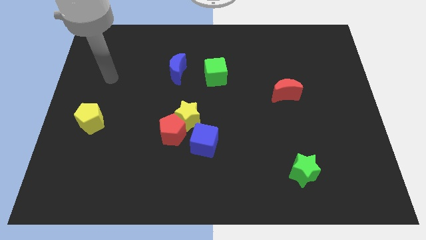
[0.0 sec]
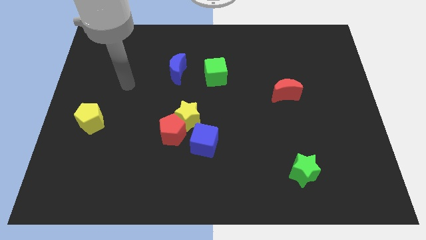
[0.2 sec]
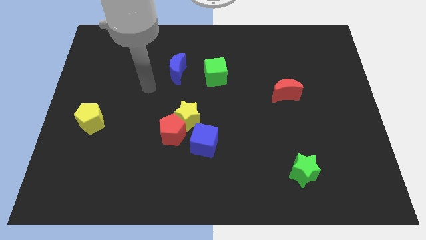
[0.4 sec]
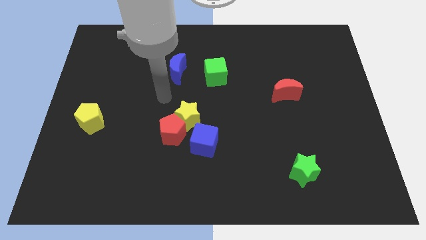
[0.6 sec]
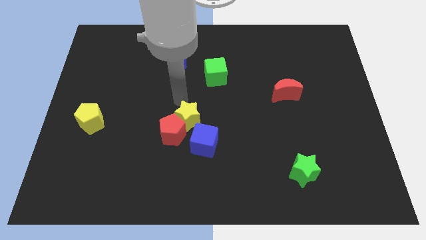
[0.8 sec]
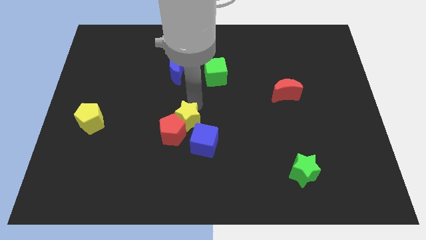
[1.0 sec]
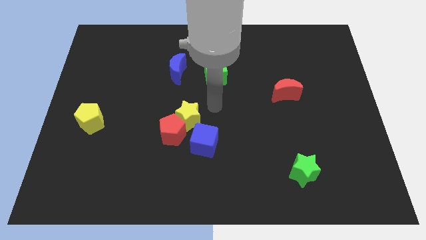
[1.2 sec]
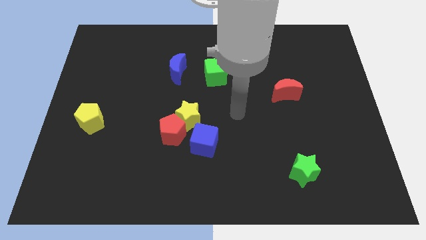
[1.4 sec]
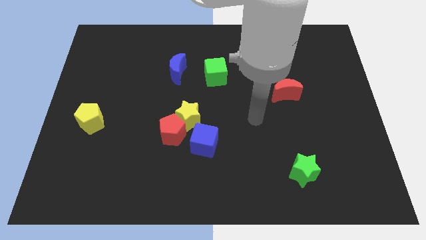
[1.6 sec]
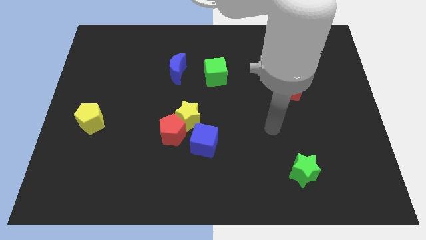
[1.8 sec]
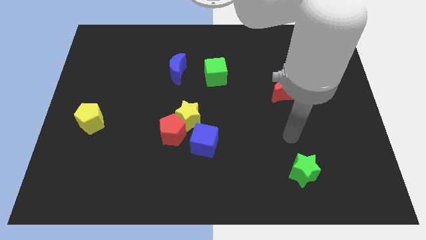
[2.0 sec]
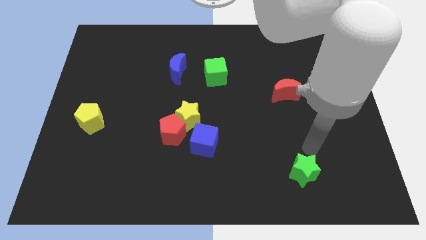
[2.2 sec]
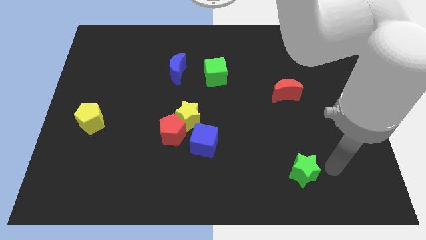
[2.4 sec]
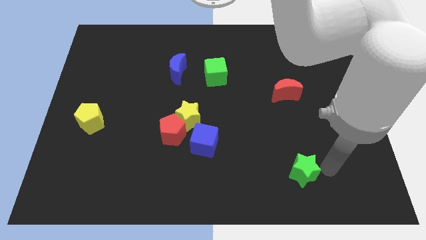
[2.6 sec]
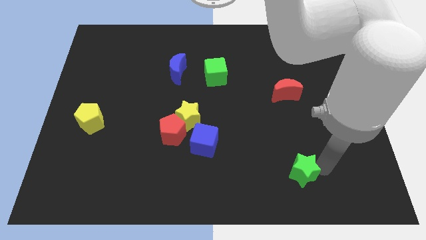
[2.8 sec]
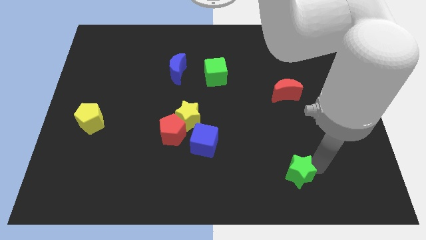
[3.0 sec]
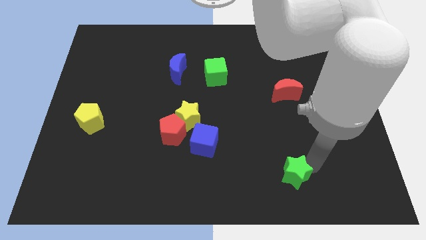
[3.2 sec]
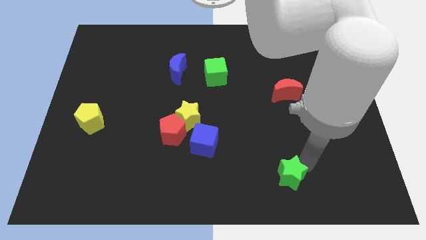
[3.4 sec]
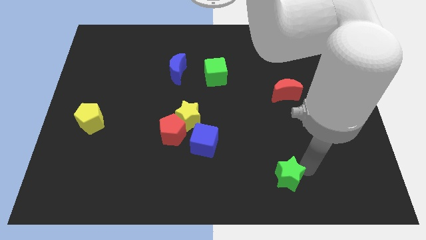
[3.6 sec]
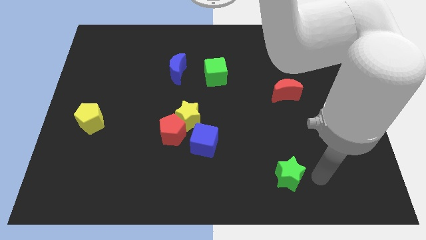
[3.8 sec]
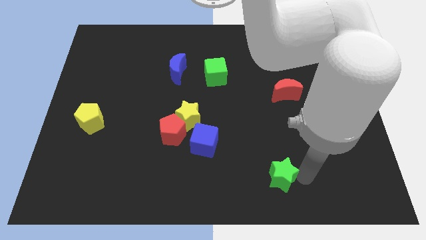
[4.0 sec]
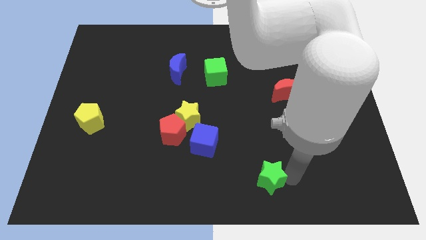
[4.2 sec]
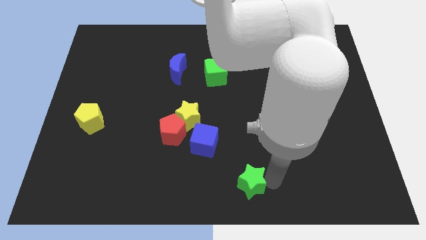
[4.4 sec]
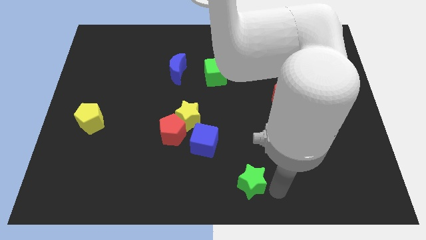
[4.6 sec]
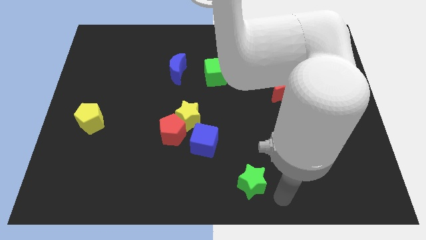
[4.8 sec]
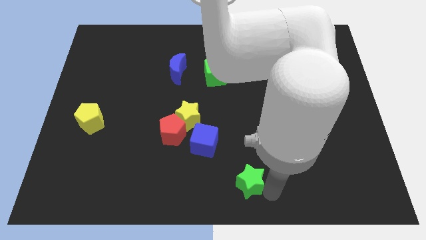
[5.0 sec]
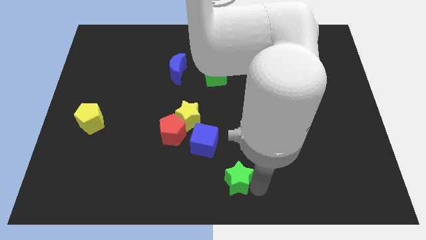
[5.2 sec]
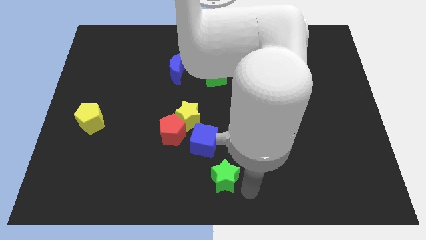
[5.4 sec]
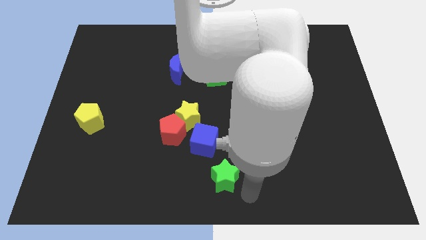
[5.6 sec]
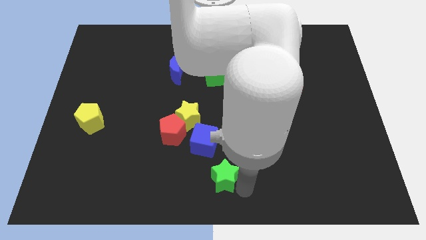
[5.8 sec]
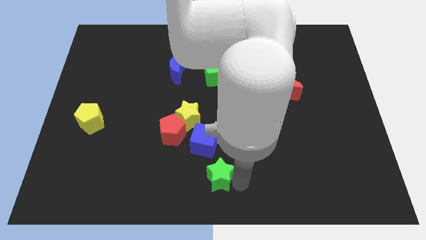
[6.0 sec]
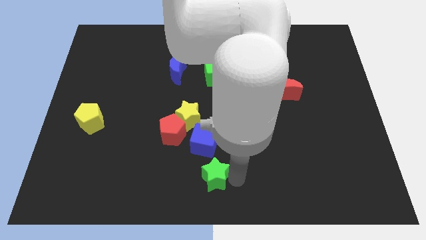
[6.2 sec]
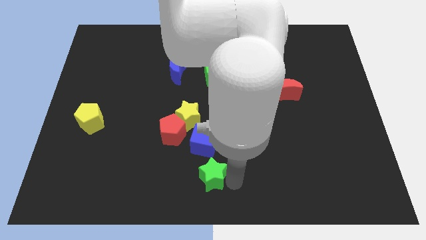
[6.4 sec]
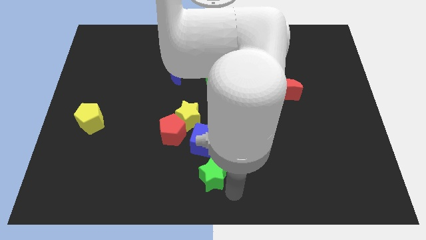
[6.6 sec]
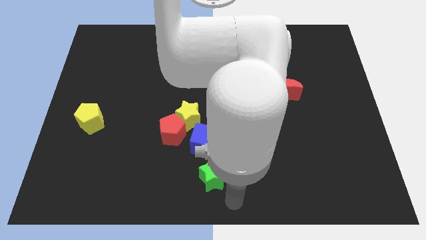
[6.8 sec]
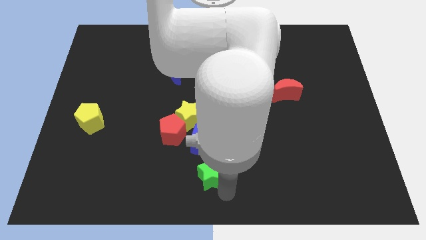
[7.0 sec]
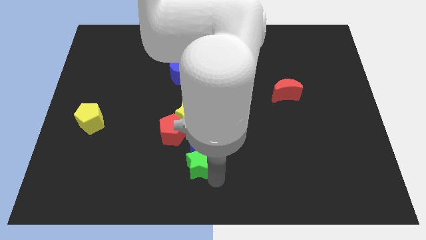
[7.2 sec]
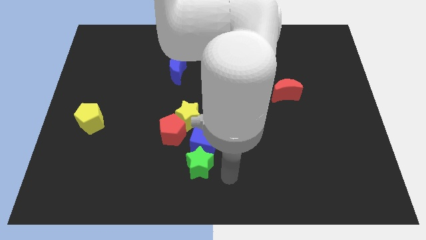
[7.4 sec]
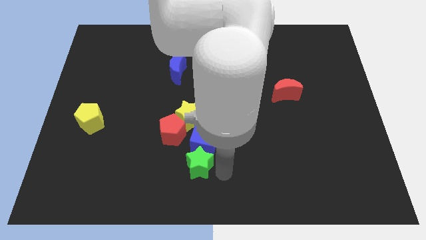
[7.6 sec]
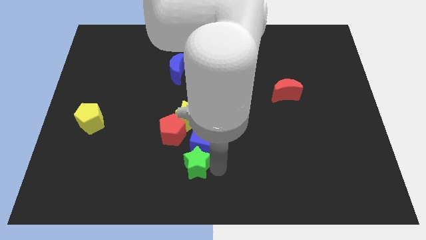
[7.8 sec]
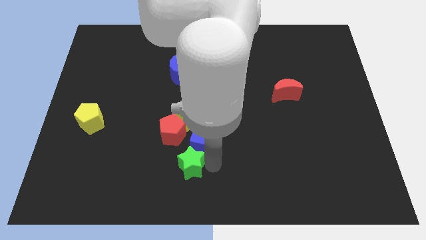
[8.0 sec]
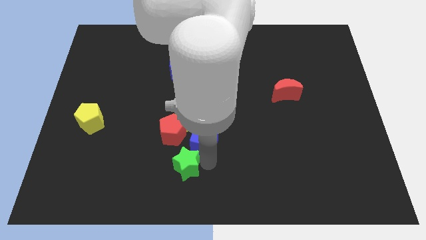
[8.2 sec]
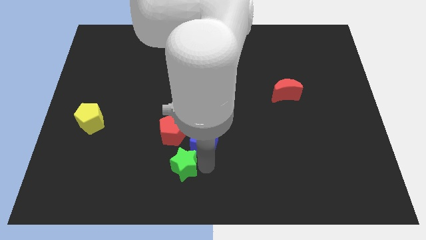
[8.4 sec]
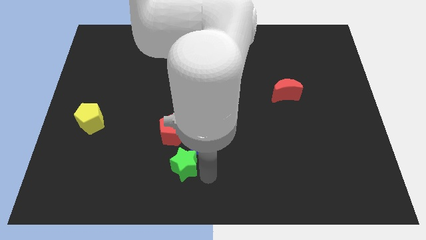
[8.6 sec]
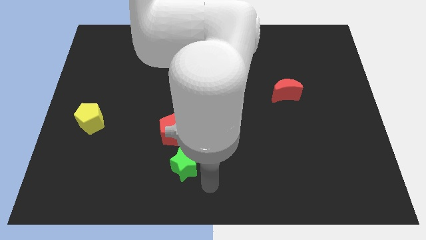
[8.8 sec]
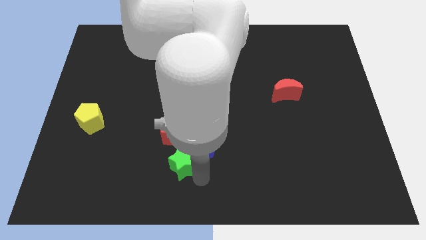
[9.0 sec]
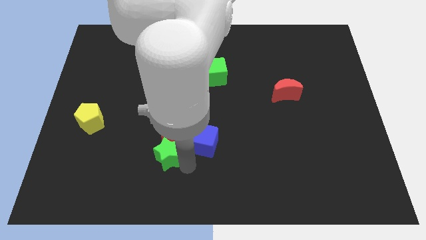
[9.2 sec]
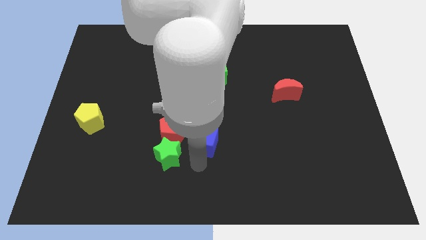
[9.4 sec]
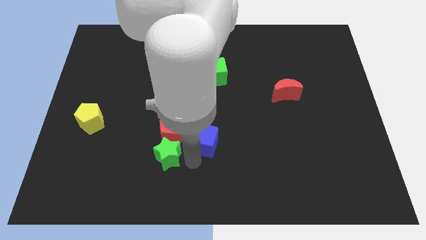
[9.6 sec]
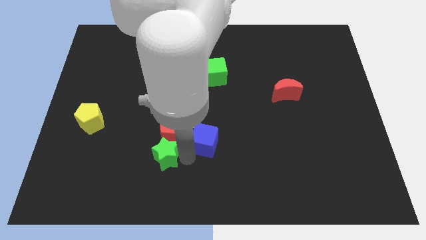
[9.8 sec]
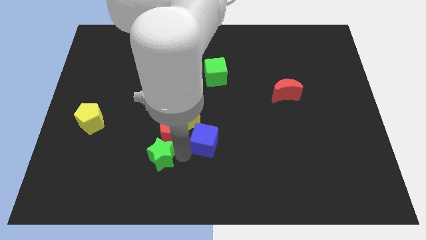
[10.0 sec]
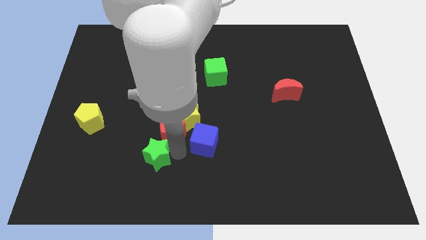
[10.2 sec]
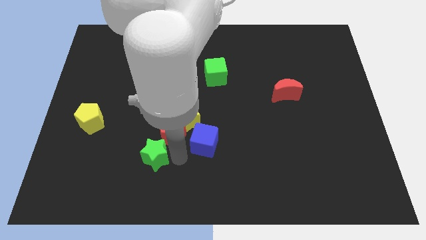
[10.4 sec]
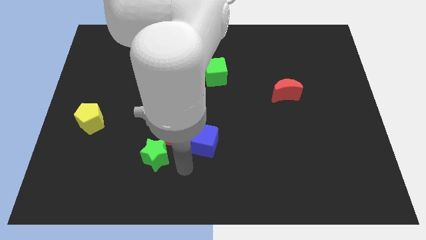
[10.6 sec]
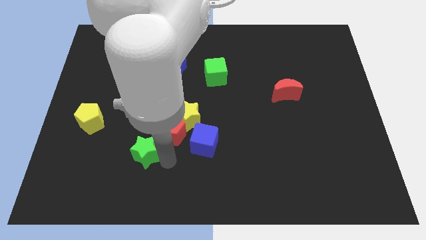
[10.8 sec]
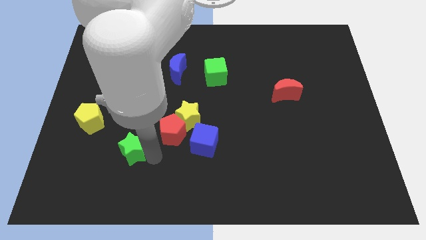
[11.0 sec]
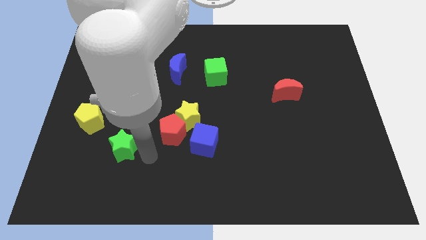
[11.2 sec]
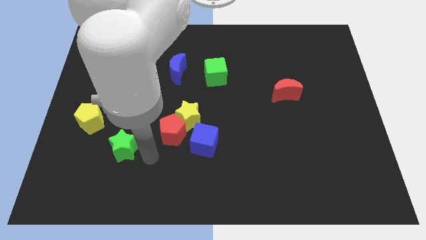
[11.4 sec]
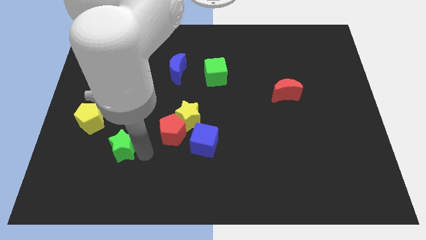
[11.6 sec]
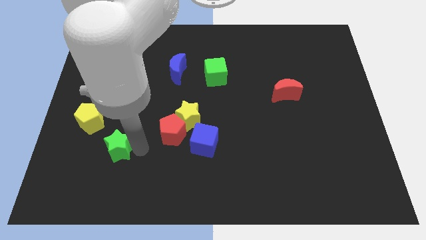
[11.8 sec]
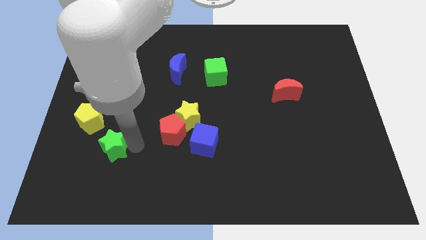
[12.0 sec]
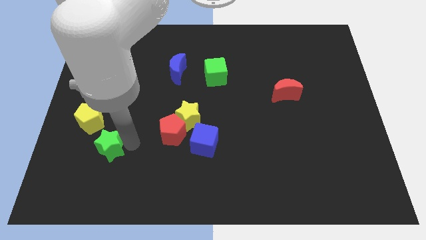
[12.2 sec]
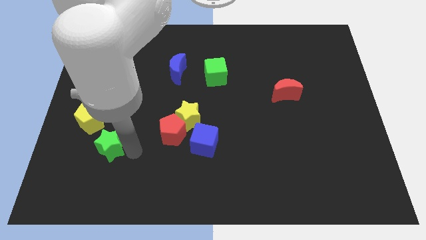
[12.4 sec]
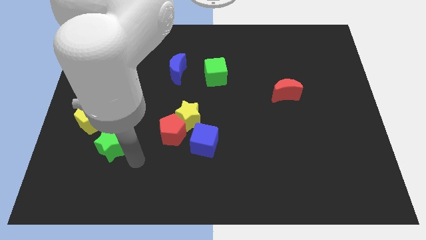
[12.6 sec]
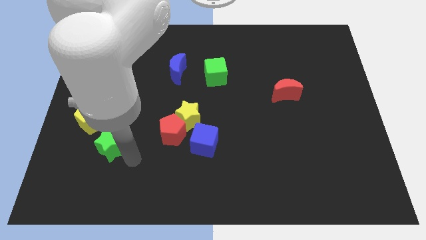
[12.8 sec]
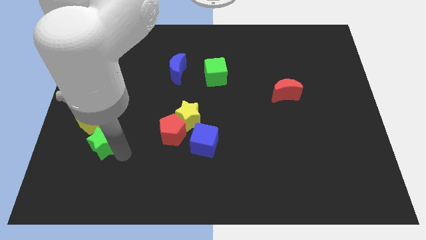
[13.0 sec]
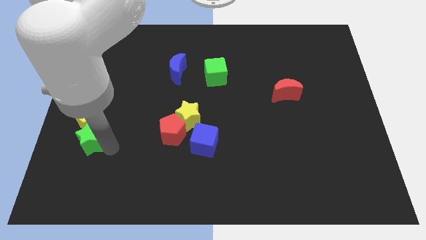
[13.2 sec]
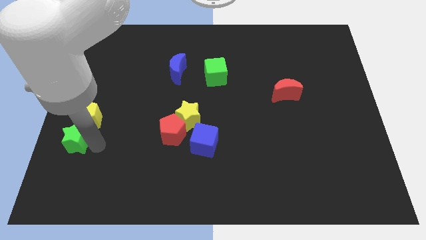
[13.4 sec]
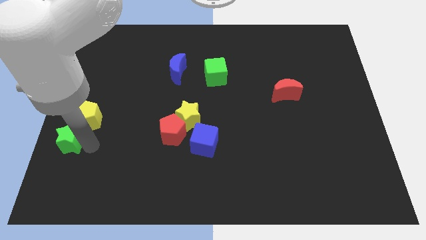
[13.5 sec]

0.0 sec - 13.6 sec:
push the green star to the left side
